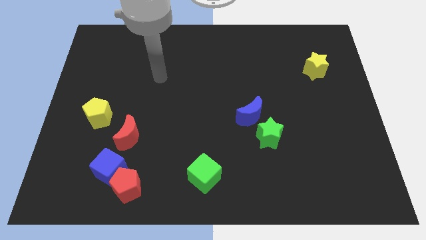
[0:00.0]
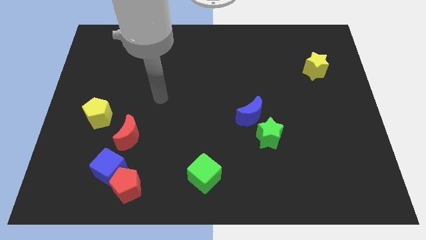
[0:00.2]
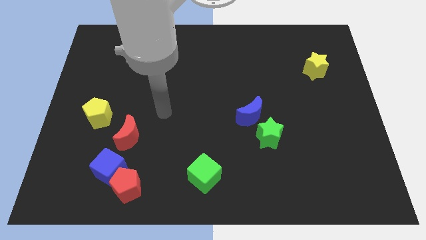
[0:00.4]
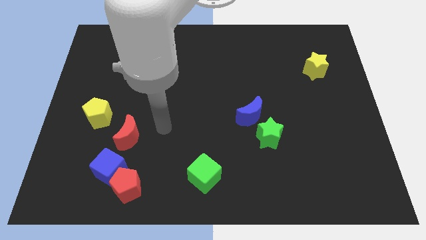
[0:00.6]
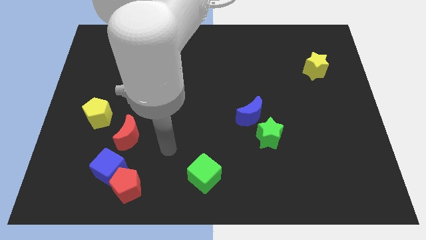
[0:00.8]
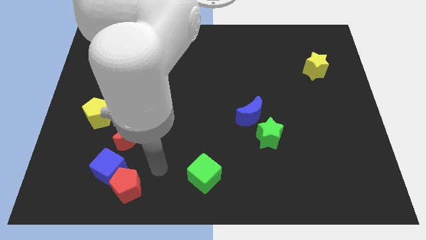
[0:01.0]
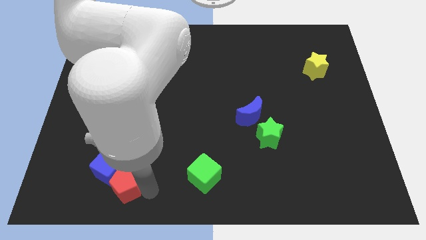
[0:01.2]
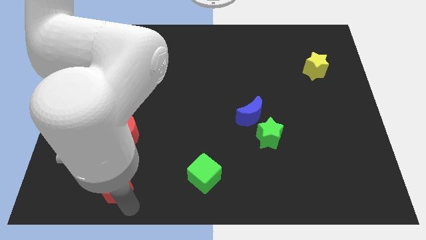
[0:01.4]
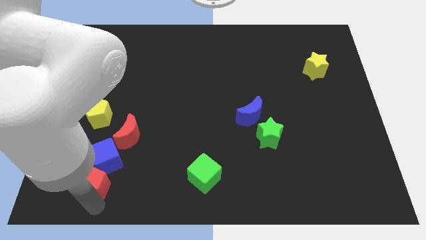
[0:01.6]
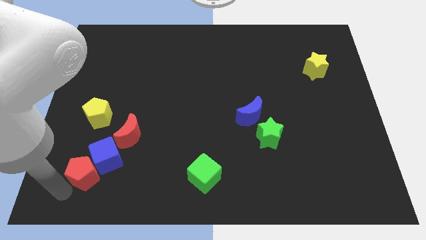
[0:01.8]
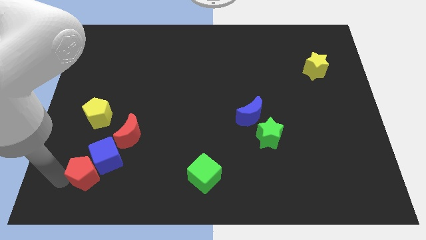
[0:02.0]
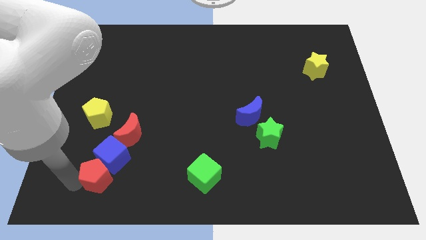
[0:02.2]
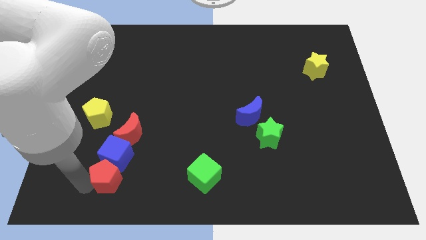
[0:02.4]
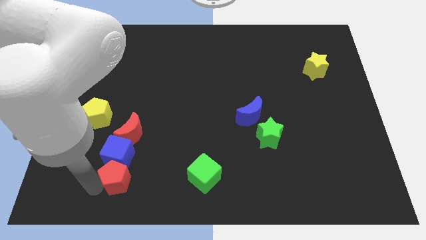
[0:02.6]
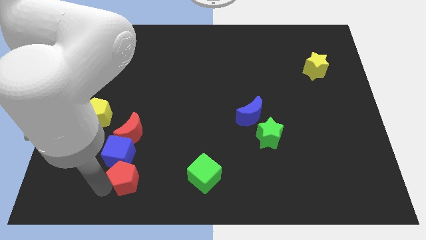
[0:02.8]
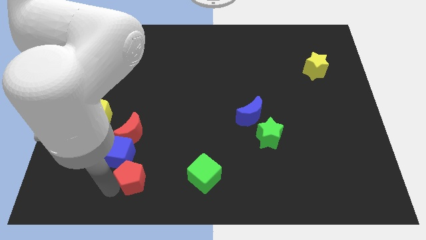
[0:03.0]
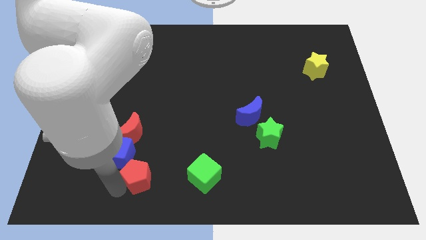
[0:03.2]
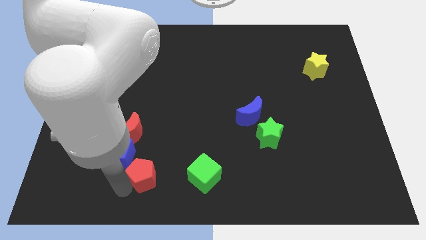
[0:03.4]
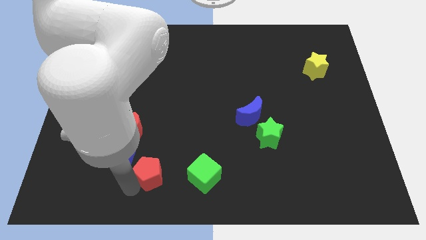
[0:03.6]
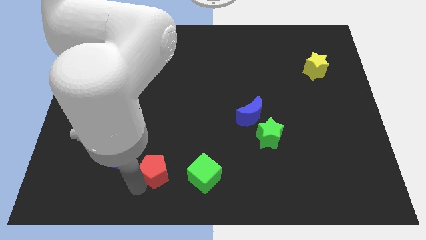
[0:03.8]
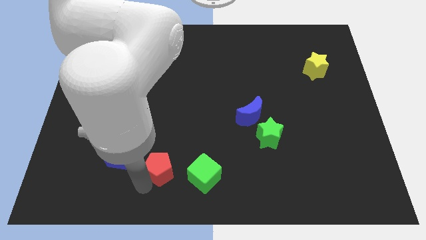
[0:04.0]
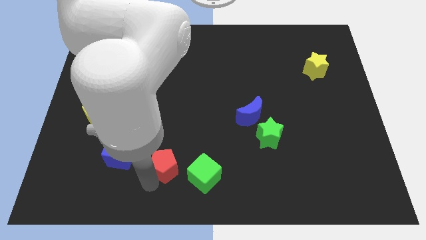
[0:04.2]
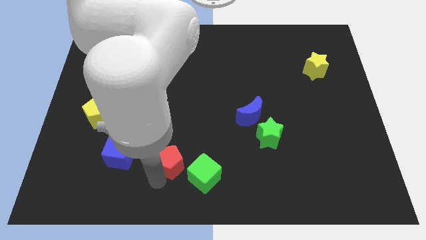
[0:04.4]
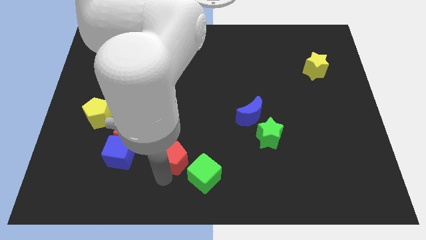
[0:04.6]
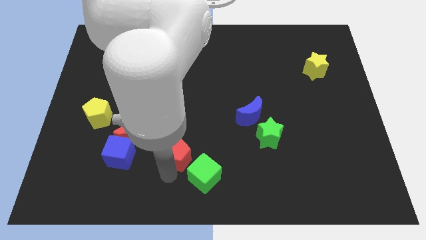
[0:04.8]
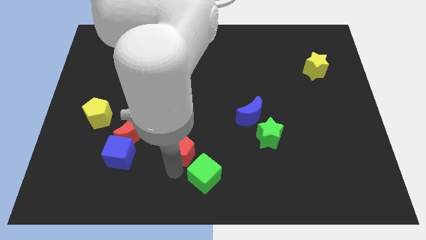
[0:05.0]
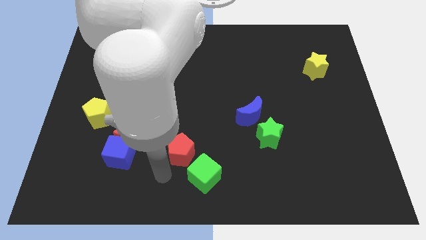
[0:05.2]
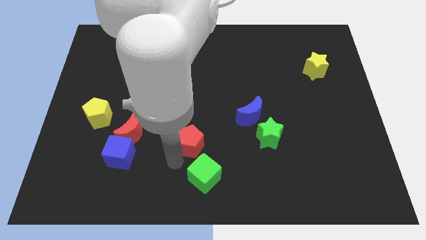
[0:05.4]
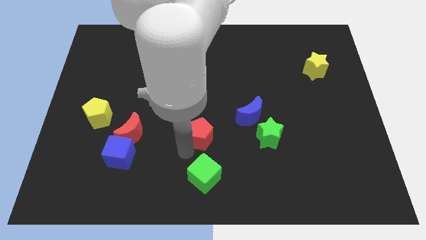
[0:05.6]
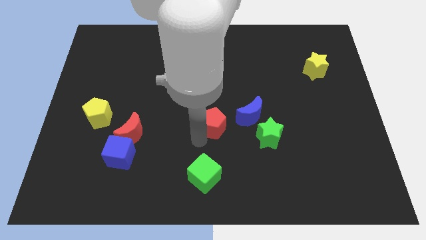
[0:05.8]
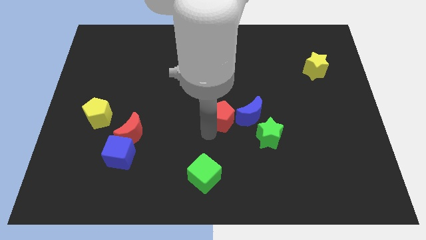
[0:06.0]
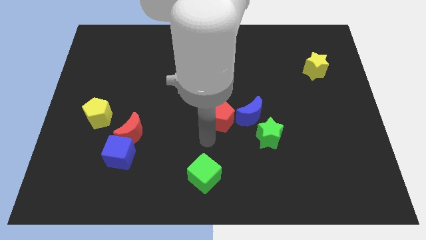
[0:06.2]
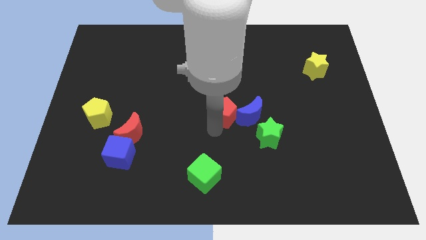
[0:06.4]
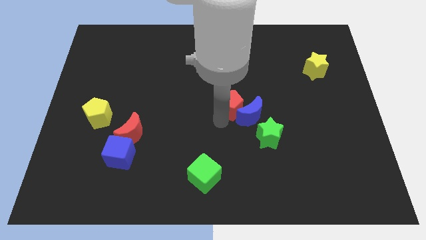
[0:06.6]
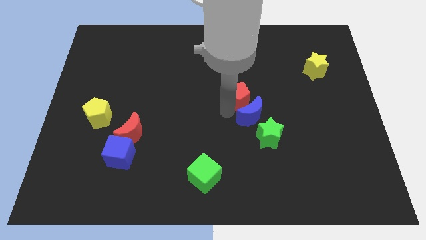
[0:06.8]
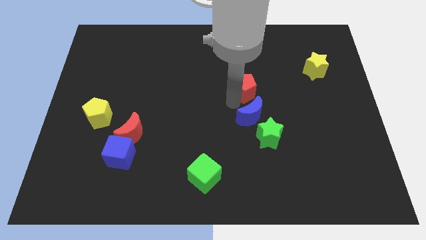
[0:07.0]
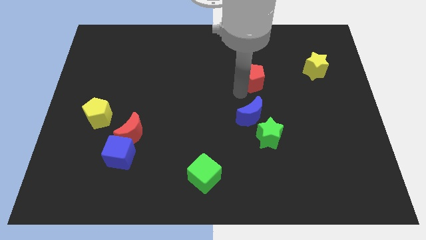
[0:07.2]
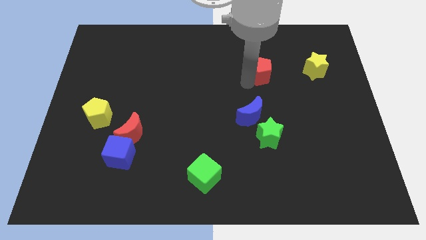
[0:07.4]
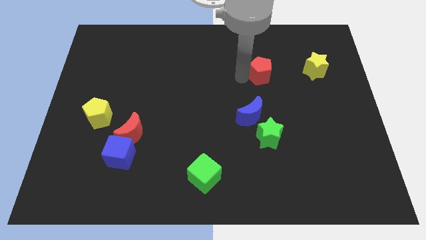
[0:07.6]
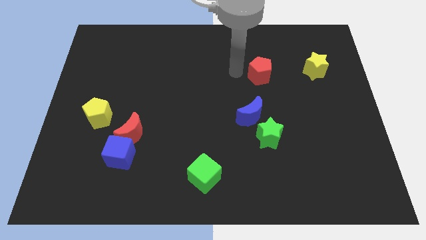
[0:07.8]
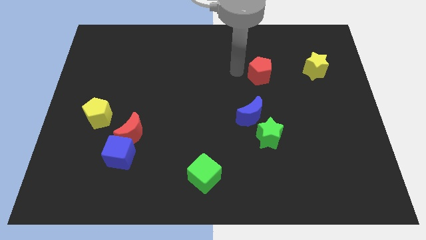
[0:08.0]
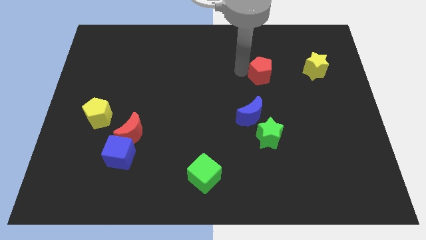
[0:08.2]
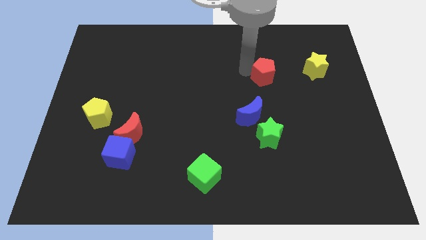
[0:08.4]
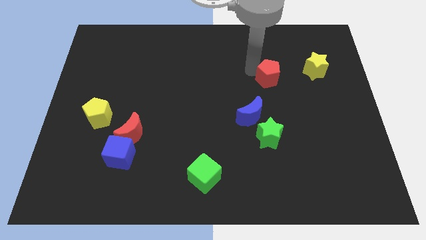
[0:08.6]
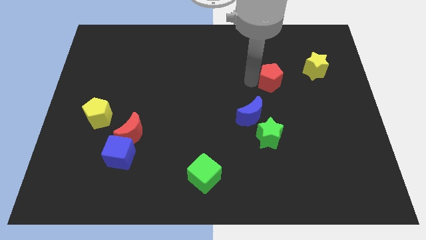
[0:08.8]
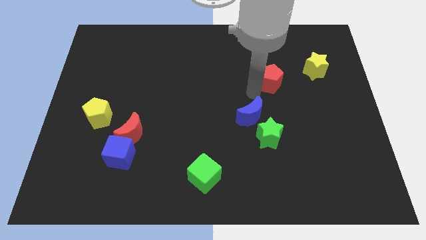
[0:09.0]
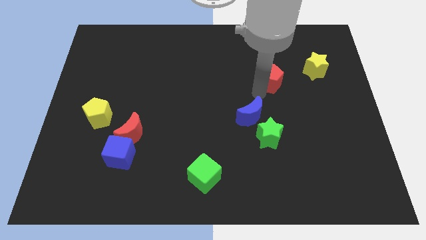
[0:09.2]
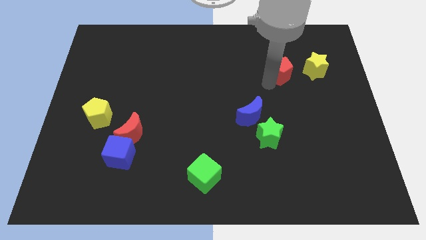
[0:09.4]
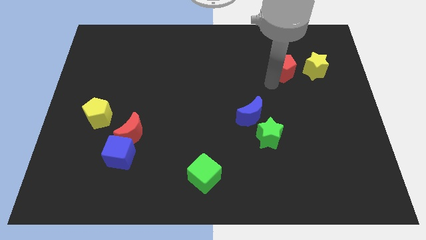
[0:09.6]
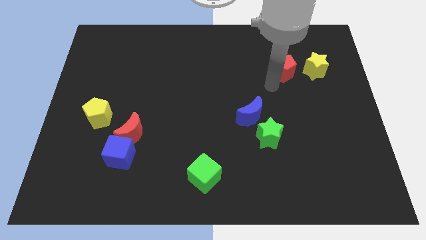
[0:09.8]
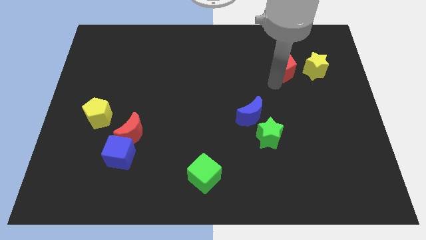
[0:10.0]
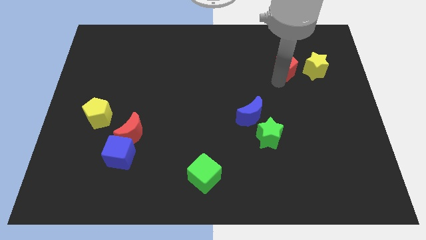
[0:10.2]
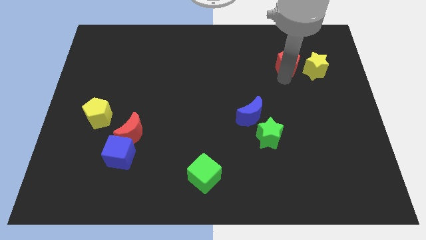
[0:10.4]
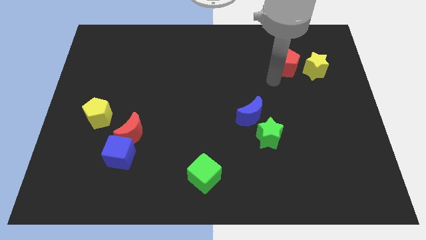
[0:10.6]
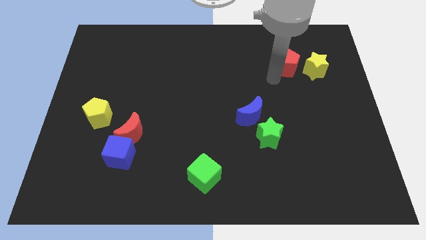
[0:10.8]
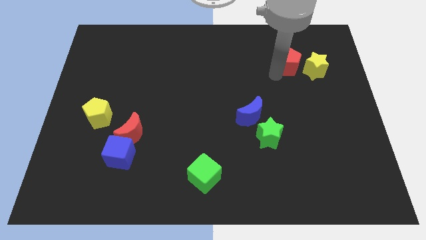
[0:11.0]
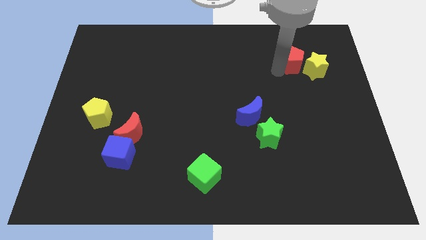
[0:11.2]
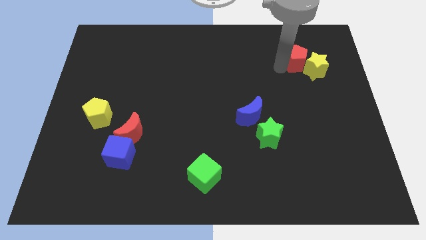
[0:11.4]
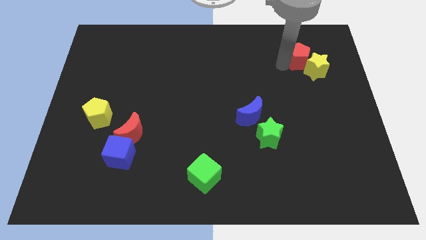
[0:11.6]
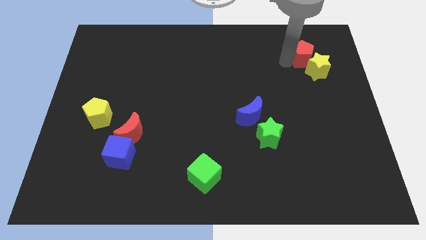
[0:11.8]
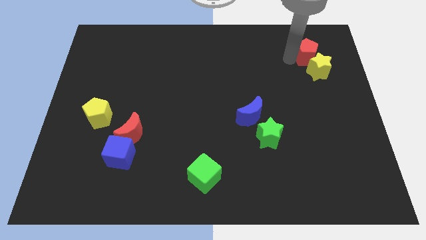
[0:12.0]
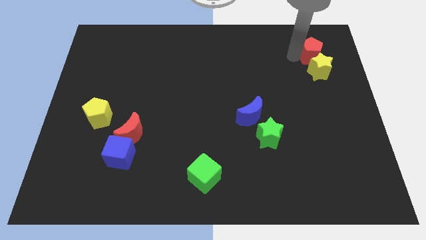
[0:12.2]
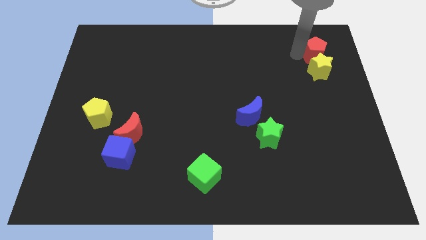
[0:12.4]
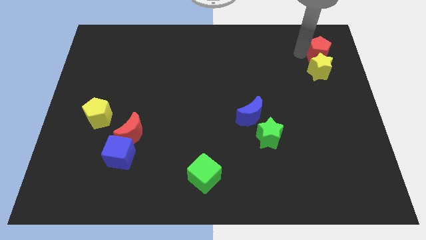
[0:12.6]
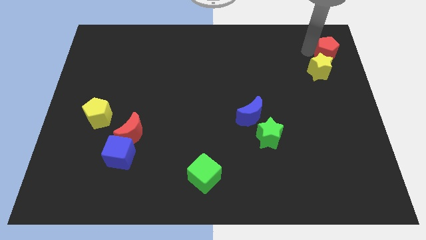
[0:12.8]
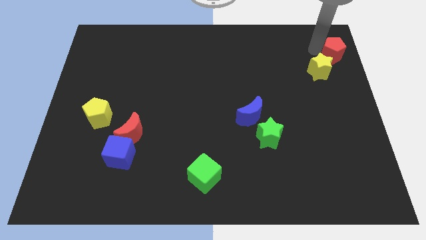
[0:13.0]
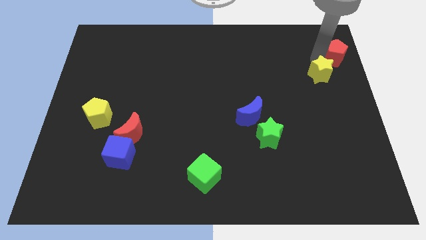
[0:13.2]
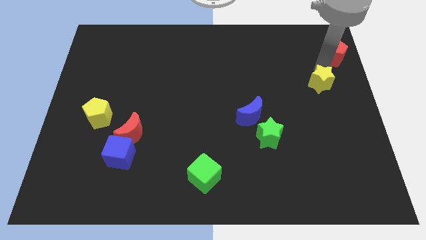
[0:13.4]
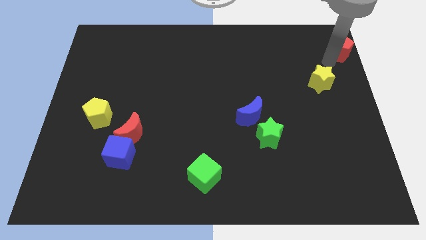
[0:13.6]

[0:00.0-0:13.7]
put the red pentagon to the top right
